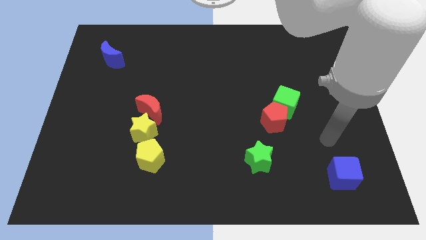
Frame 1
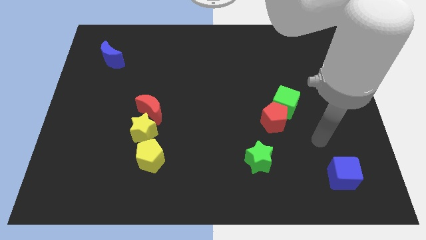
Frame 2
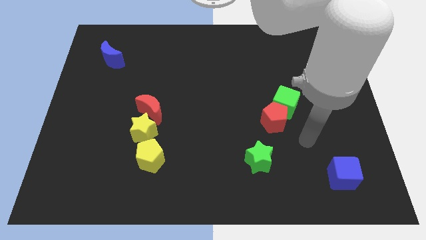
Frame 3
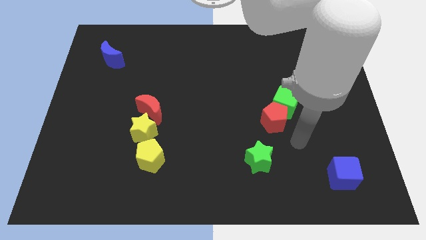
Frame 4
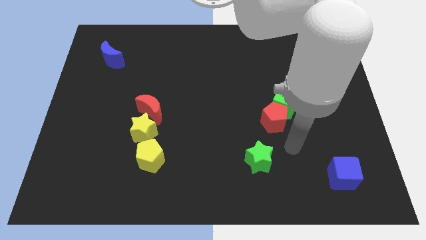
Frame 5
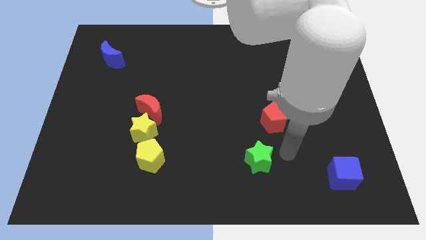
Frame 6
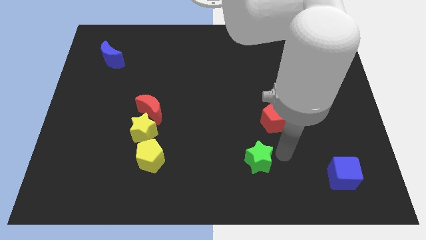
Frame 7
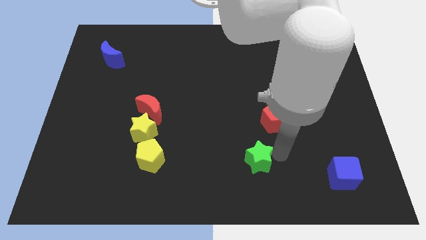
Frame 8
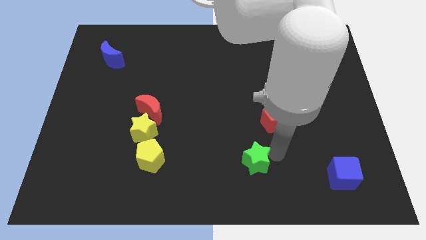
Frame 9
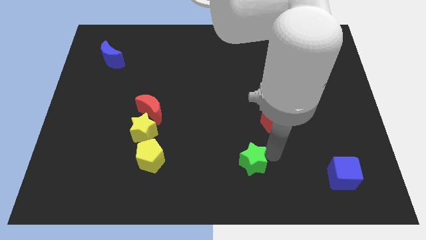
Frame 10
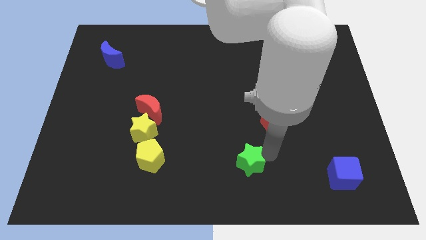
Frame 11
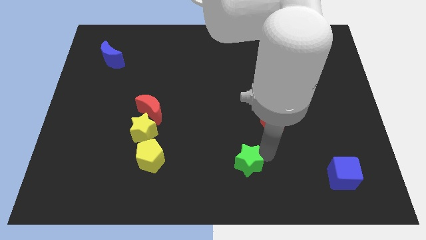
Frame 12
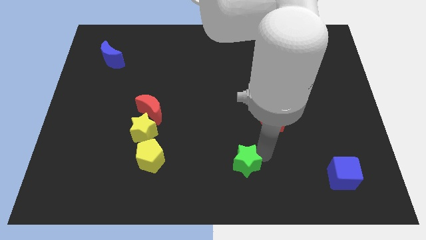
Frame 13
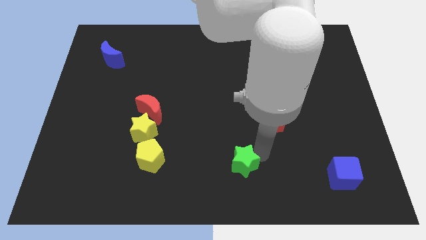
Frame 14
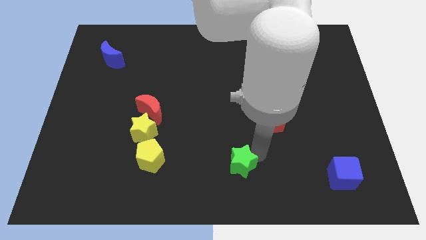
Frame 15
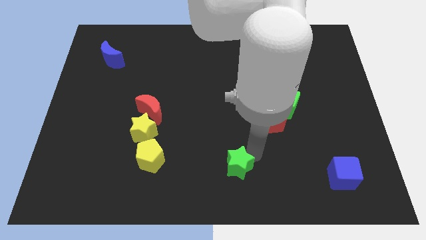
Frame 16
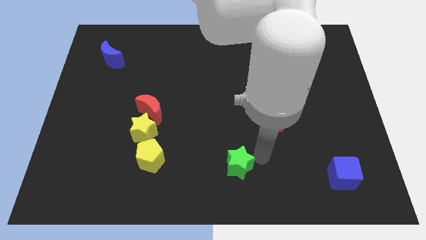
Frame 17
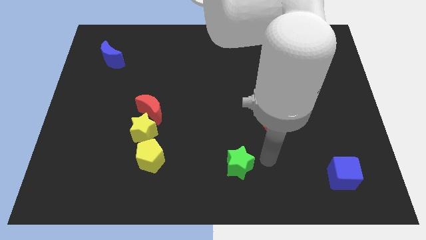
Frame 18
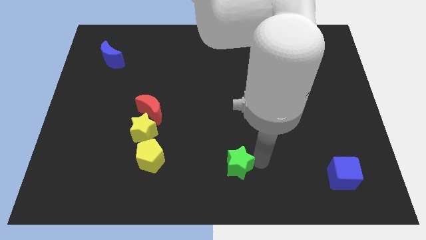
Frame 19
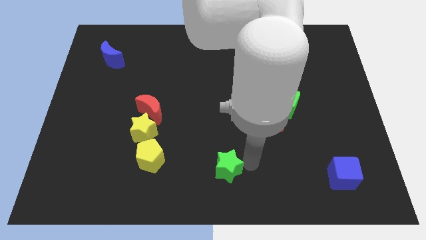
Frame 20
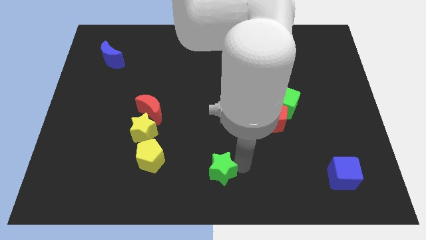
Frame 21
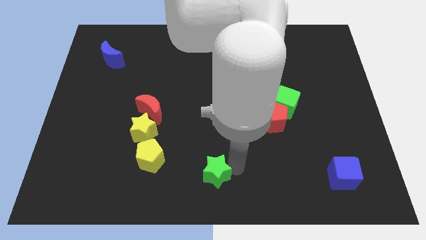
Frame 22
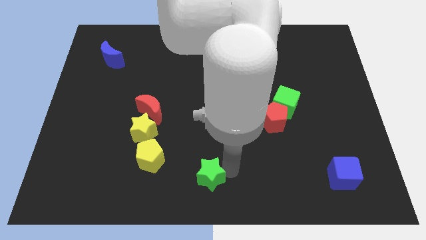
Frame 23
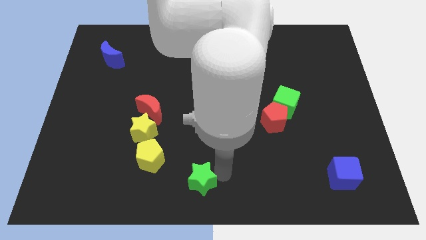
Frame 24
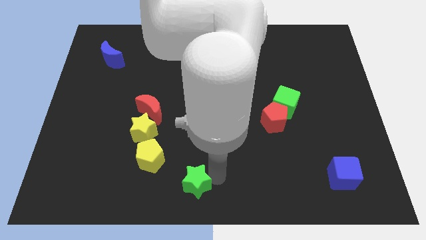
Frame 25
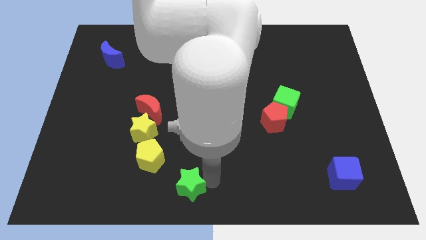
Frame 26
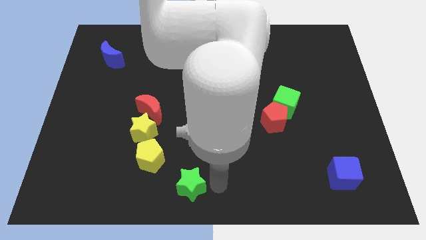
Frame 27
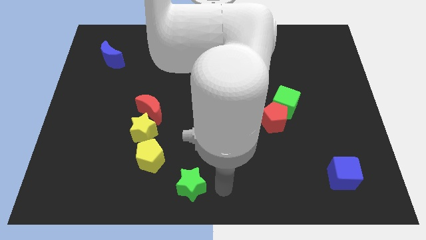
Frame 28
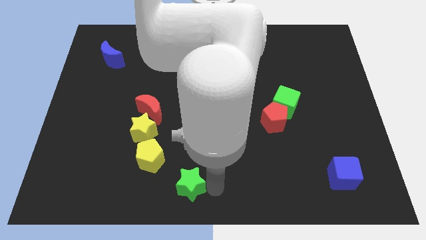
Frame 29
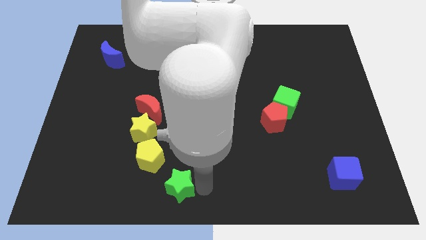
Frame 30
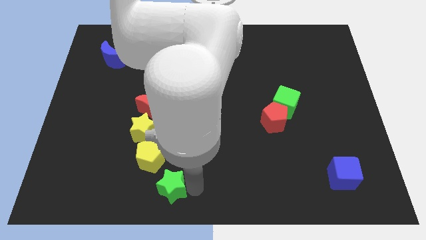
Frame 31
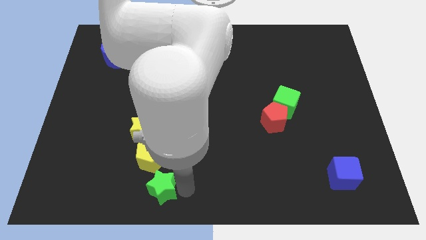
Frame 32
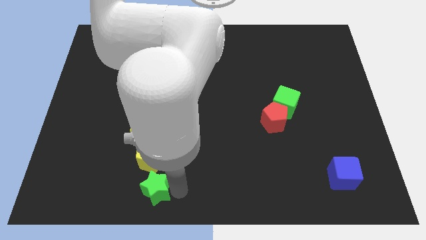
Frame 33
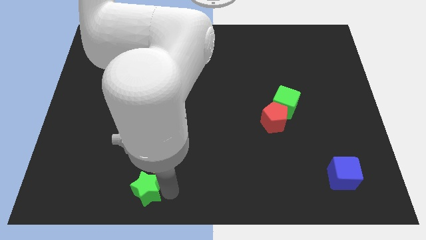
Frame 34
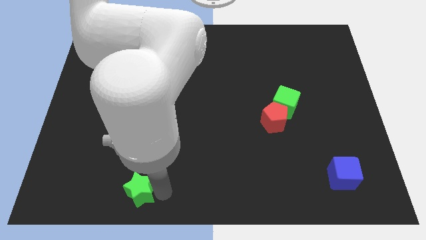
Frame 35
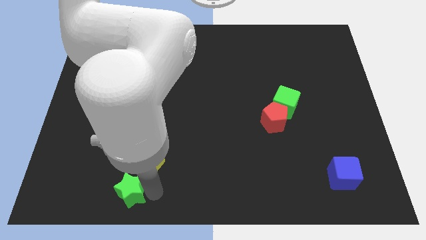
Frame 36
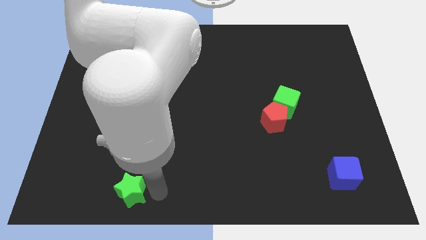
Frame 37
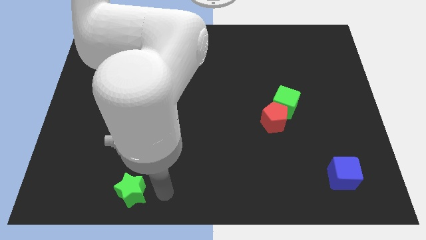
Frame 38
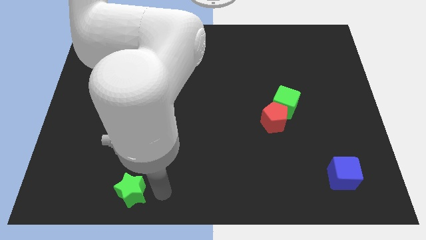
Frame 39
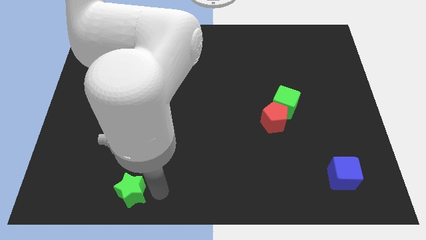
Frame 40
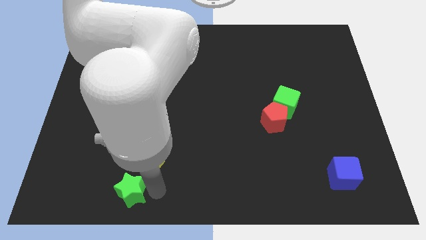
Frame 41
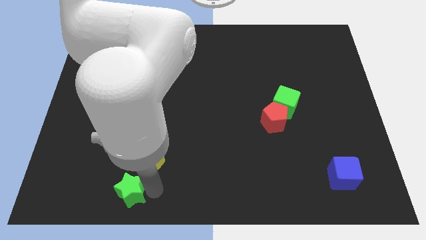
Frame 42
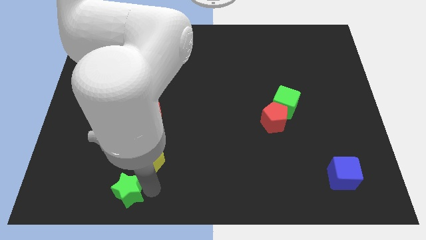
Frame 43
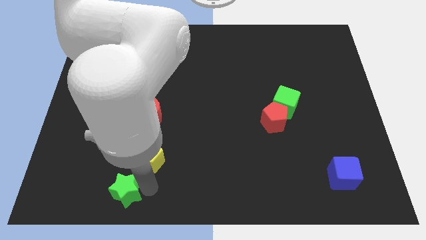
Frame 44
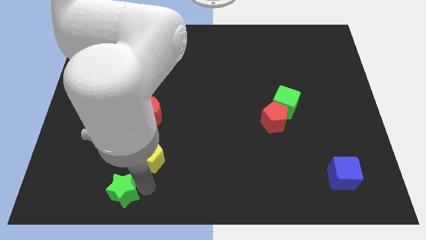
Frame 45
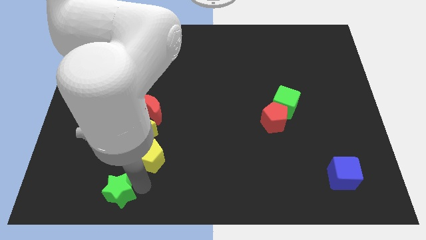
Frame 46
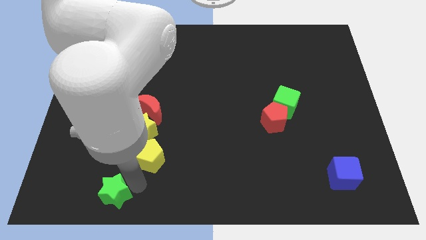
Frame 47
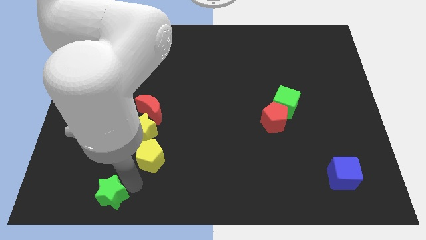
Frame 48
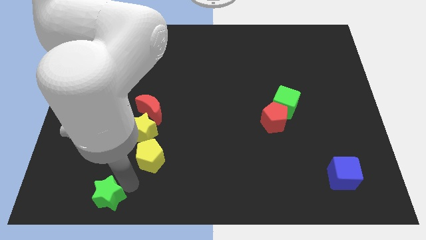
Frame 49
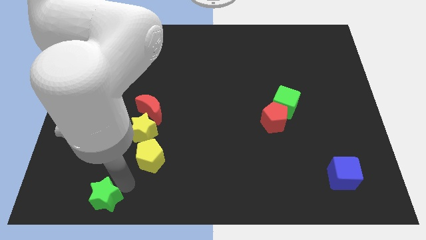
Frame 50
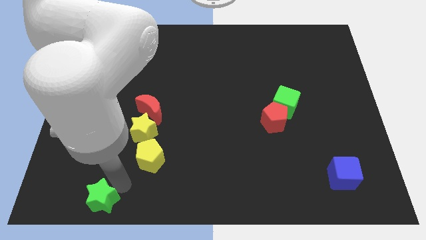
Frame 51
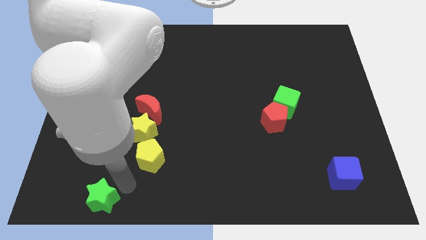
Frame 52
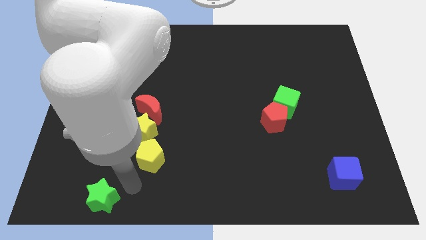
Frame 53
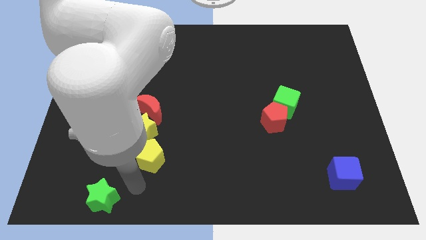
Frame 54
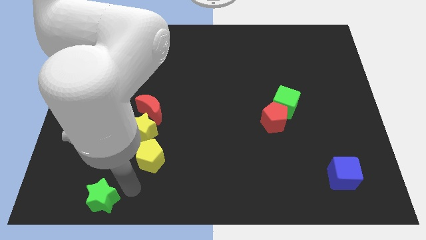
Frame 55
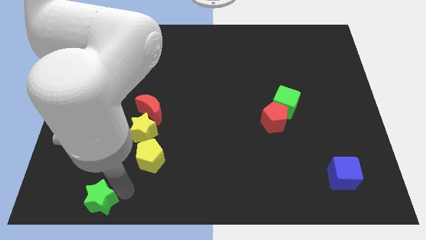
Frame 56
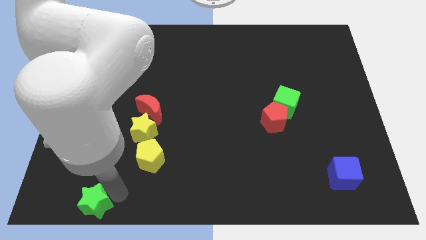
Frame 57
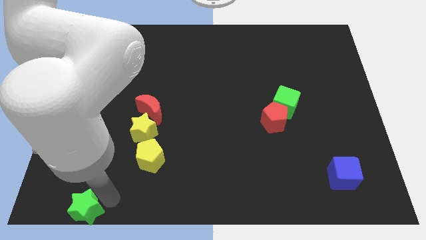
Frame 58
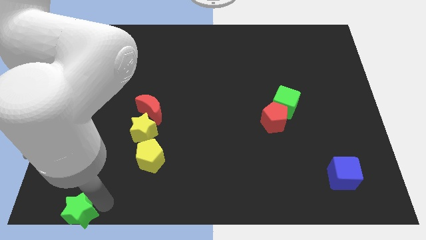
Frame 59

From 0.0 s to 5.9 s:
move the green star to the bottom left
